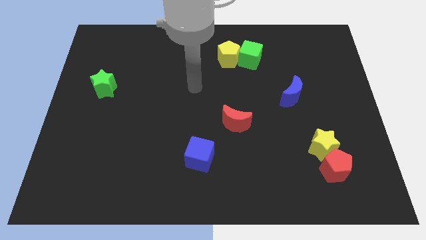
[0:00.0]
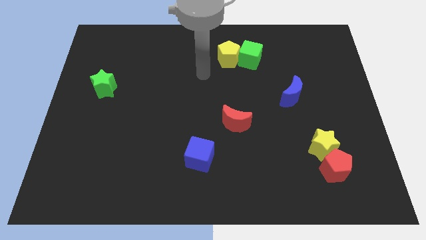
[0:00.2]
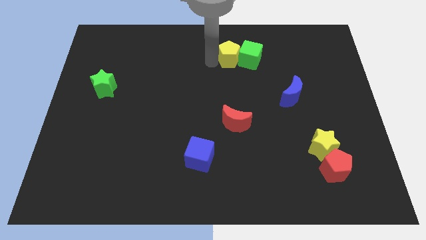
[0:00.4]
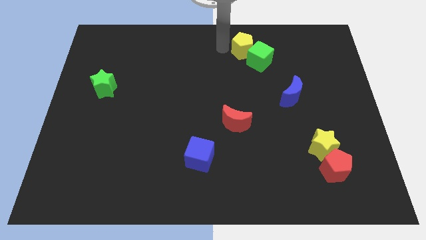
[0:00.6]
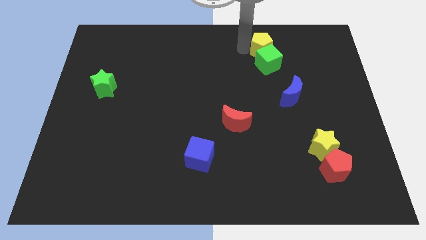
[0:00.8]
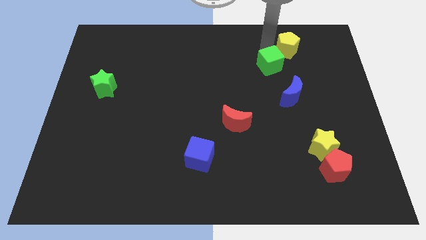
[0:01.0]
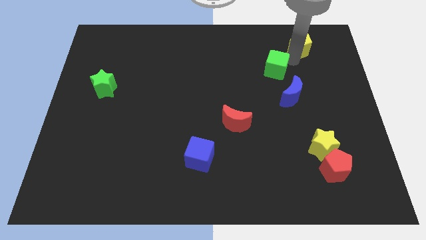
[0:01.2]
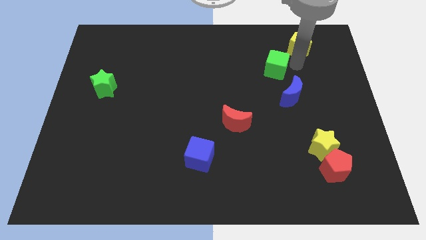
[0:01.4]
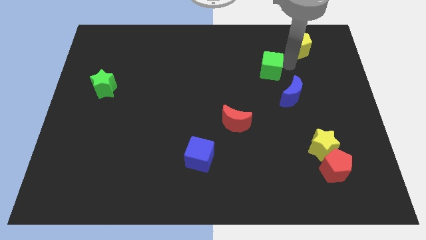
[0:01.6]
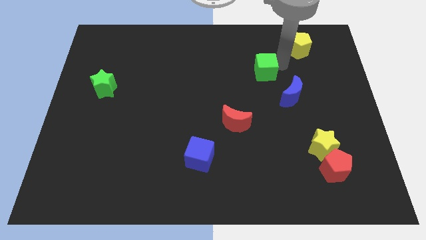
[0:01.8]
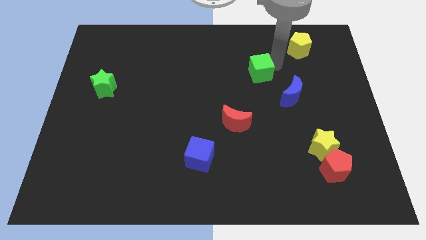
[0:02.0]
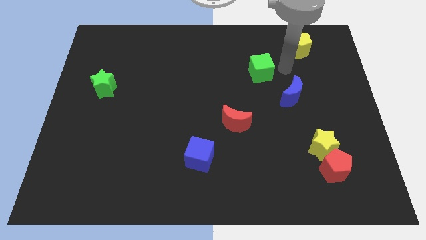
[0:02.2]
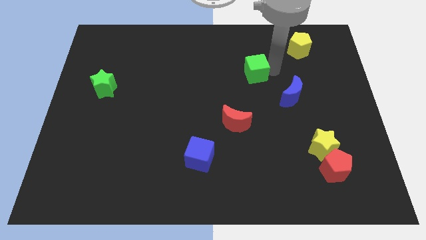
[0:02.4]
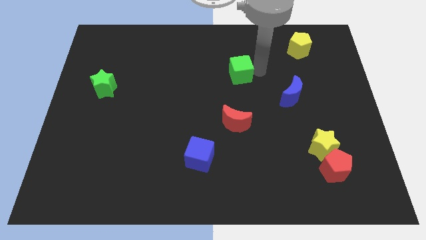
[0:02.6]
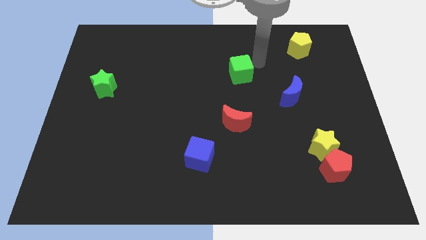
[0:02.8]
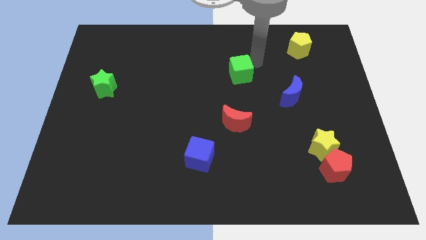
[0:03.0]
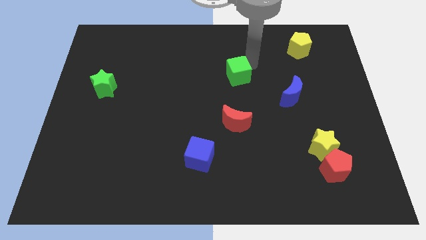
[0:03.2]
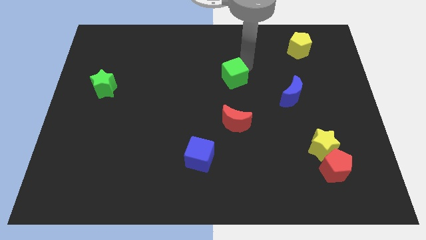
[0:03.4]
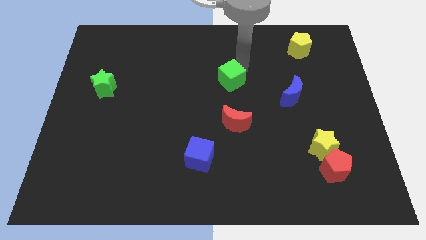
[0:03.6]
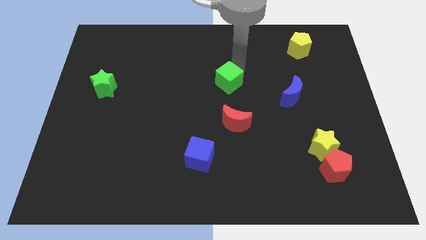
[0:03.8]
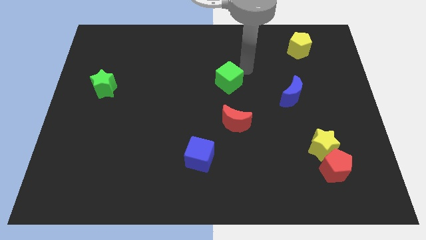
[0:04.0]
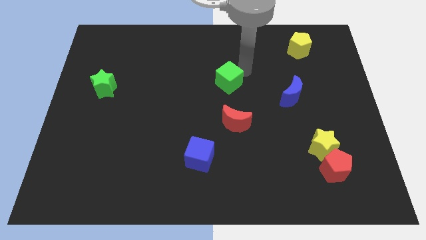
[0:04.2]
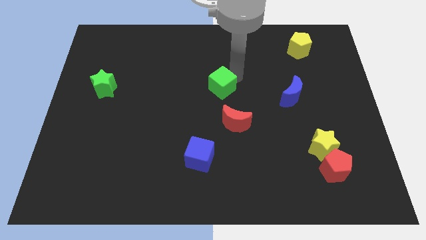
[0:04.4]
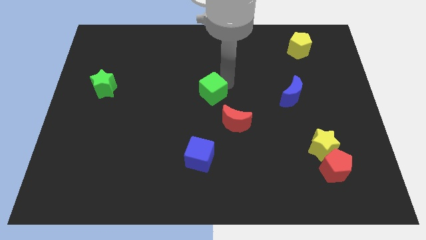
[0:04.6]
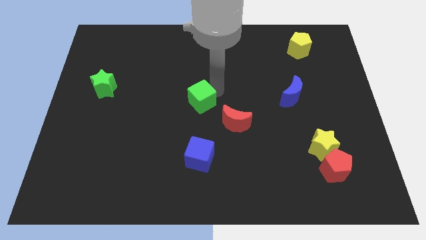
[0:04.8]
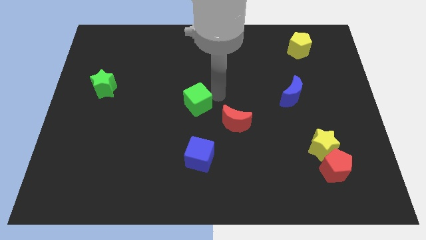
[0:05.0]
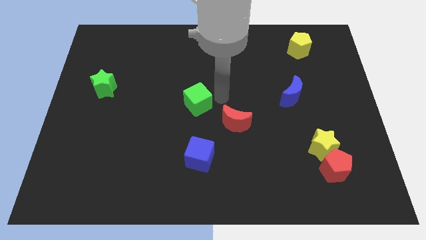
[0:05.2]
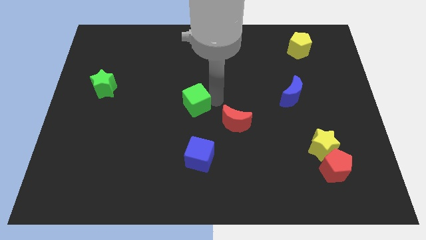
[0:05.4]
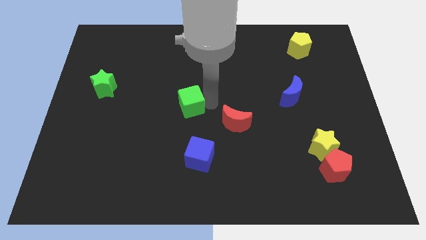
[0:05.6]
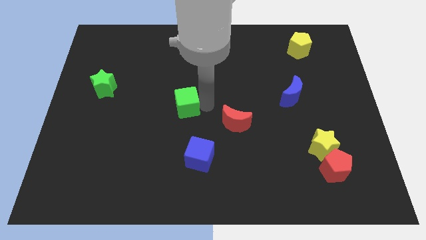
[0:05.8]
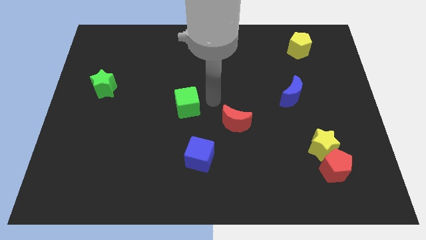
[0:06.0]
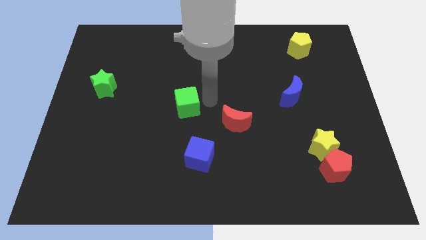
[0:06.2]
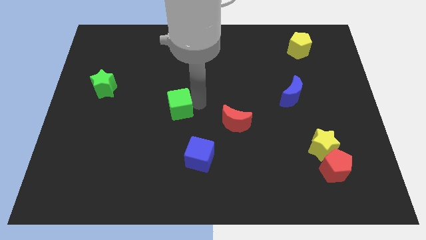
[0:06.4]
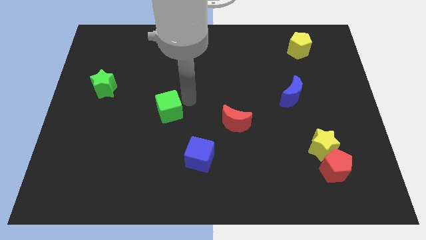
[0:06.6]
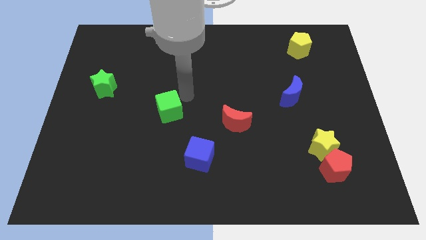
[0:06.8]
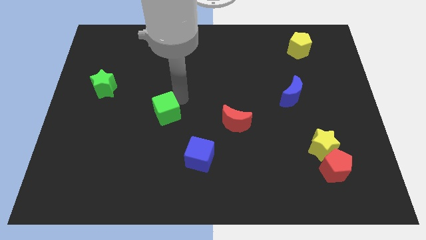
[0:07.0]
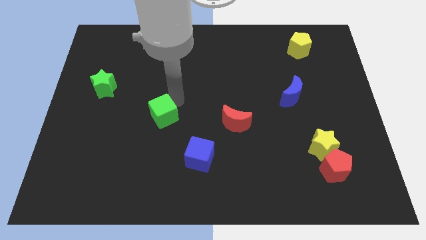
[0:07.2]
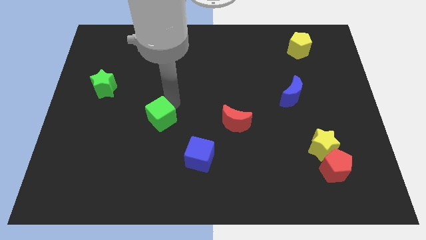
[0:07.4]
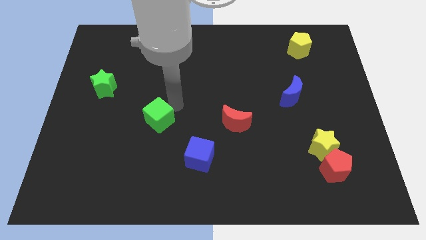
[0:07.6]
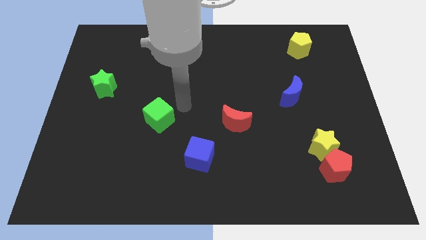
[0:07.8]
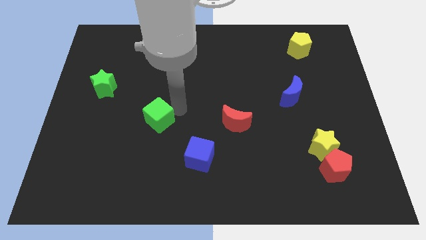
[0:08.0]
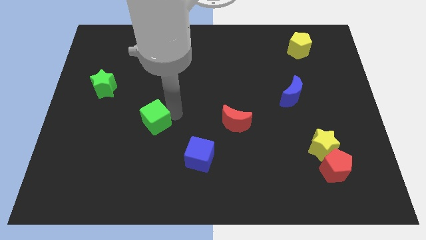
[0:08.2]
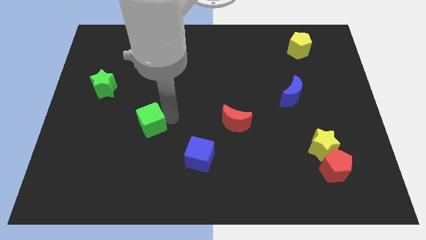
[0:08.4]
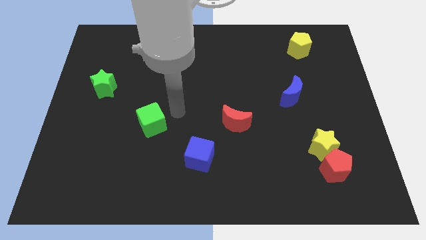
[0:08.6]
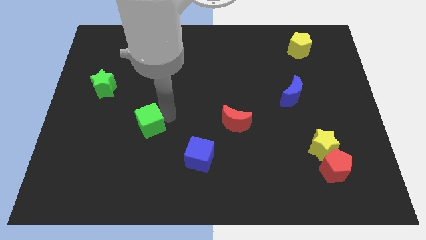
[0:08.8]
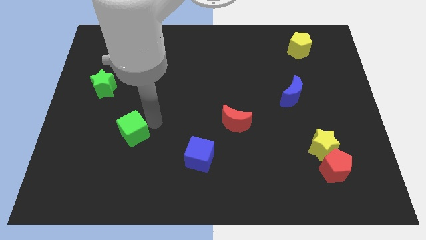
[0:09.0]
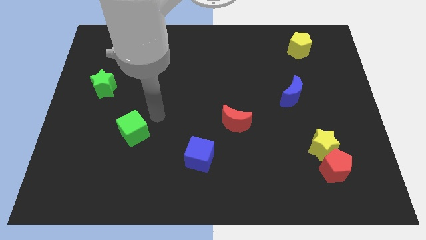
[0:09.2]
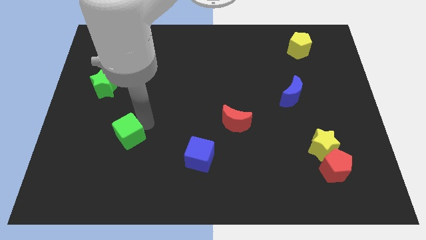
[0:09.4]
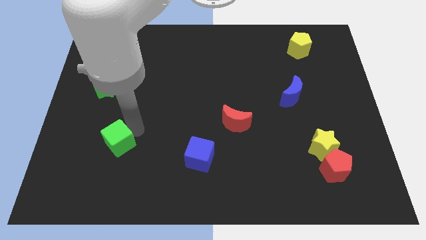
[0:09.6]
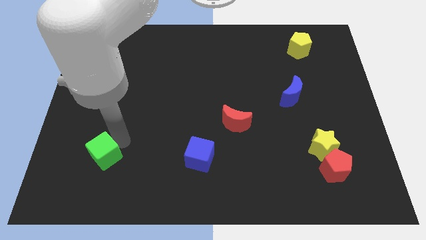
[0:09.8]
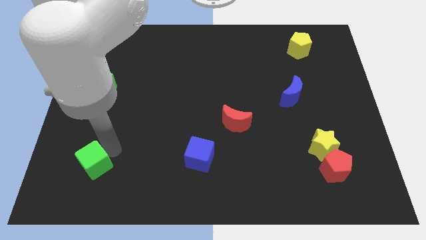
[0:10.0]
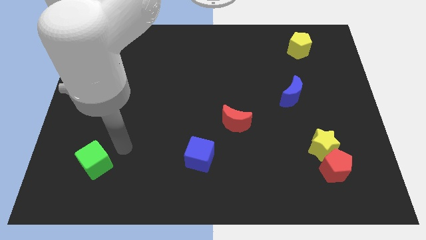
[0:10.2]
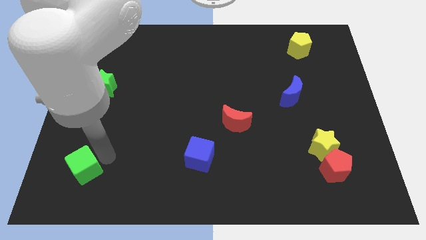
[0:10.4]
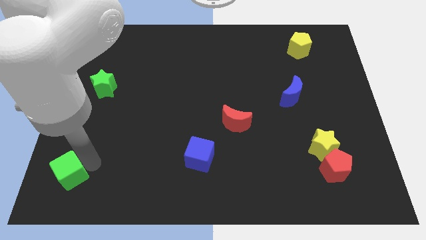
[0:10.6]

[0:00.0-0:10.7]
move the green cube to the lower left corner
